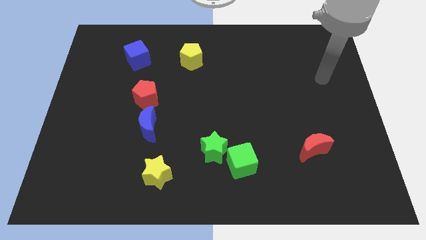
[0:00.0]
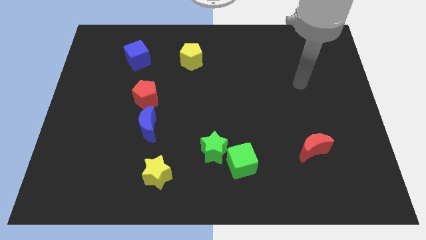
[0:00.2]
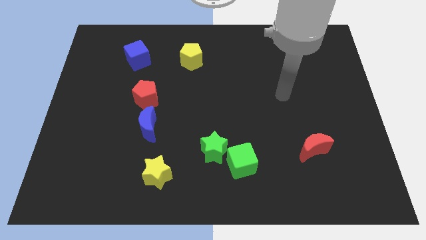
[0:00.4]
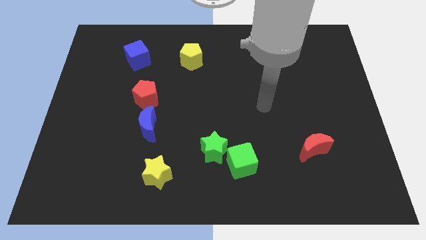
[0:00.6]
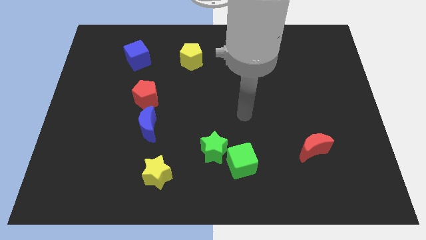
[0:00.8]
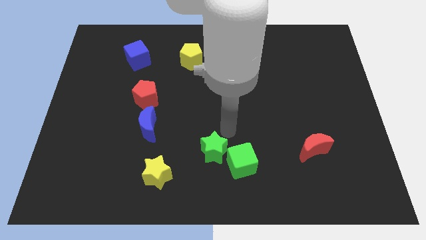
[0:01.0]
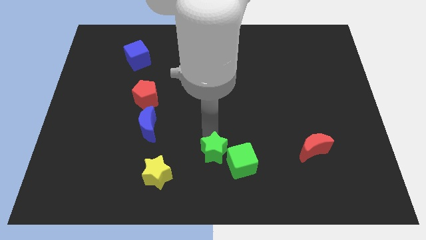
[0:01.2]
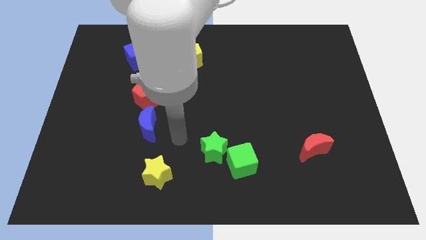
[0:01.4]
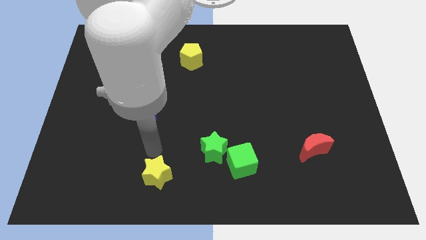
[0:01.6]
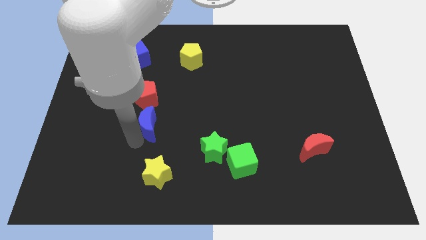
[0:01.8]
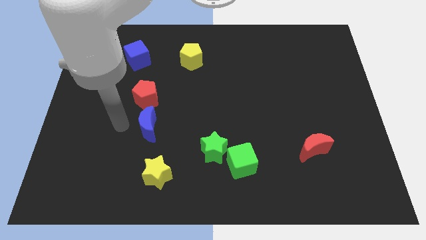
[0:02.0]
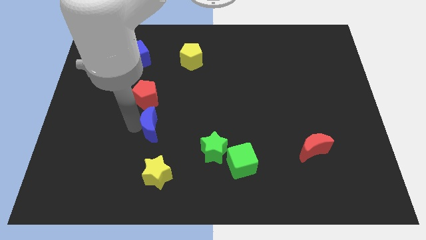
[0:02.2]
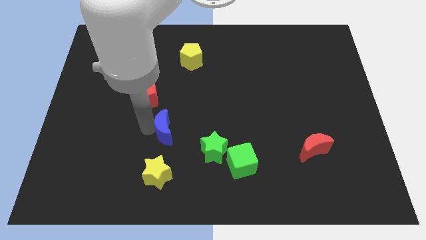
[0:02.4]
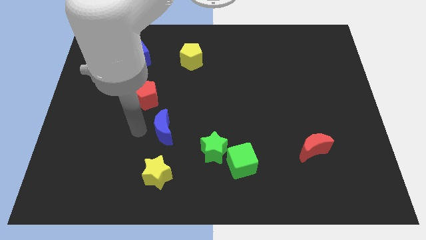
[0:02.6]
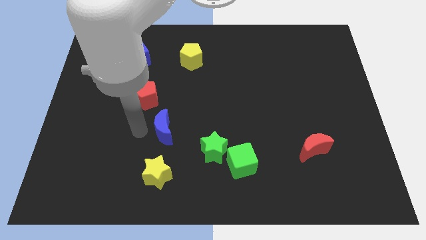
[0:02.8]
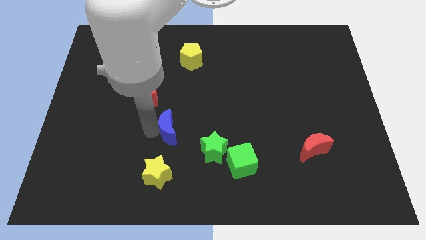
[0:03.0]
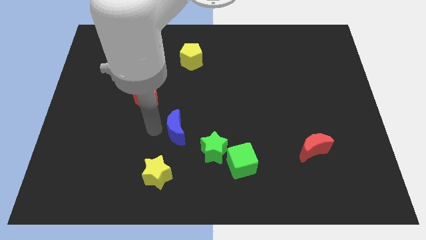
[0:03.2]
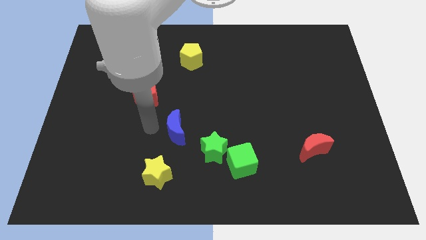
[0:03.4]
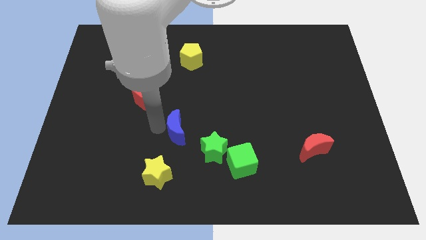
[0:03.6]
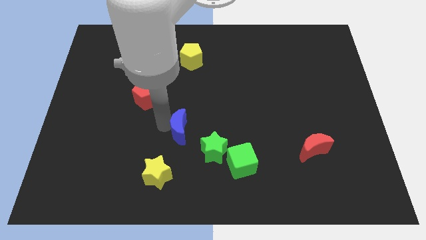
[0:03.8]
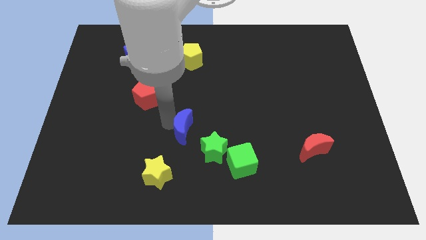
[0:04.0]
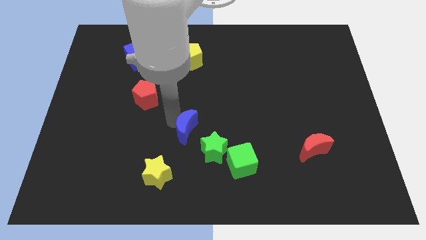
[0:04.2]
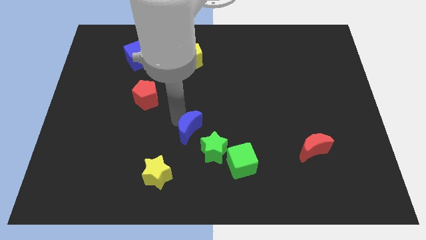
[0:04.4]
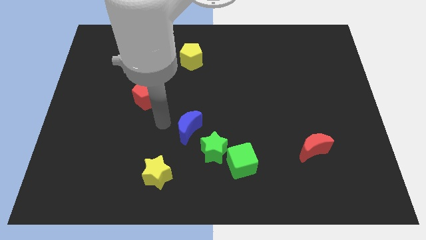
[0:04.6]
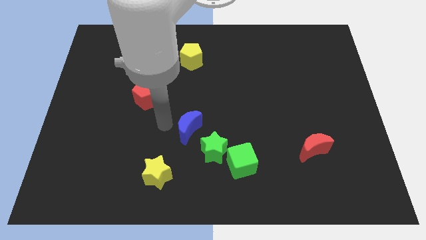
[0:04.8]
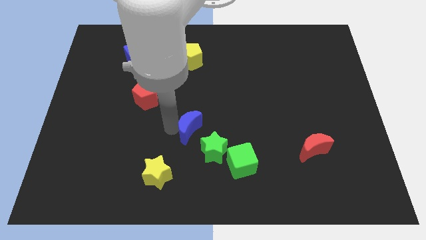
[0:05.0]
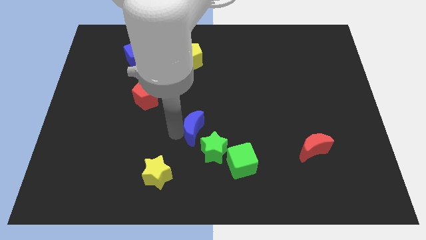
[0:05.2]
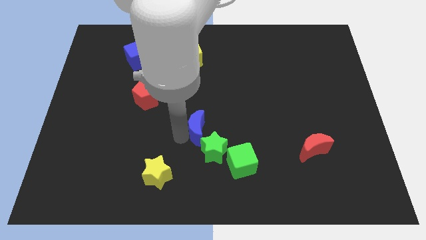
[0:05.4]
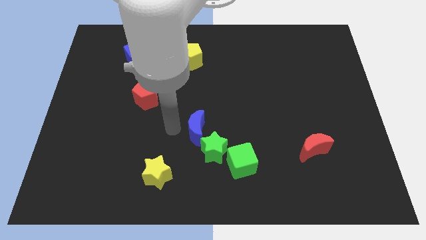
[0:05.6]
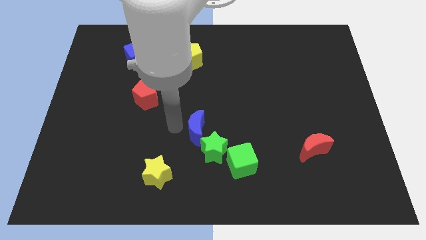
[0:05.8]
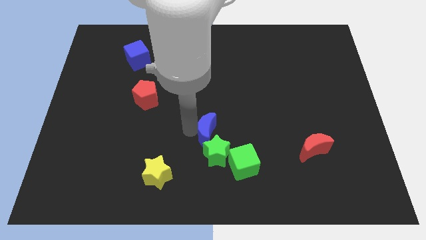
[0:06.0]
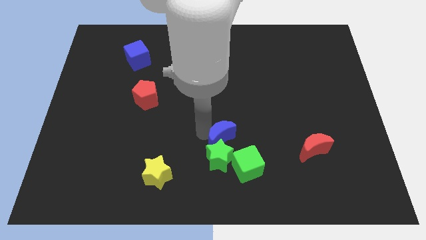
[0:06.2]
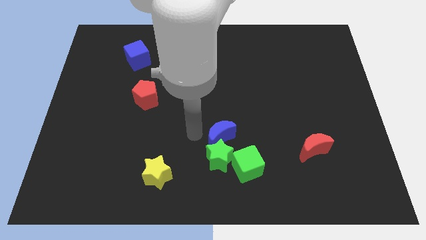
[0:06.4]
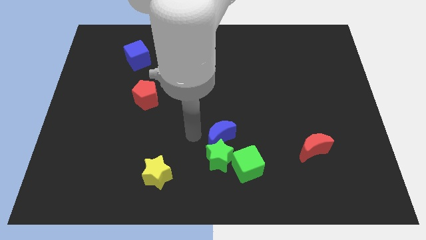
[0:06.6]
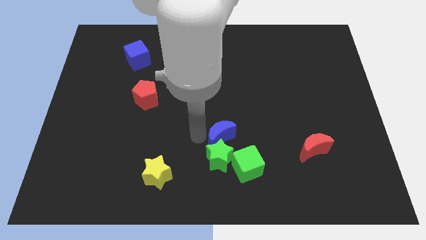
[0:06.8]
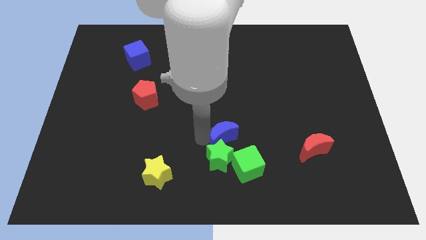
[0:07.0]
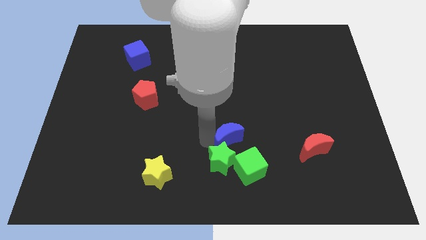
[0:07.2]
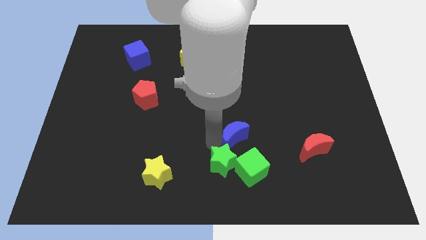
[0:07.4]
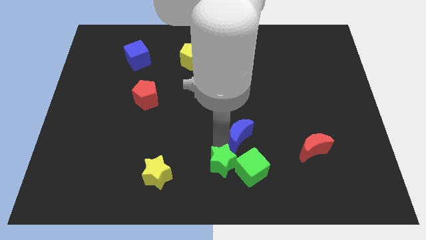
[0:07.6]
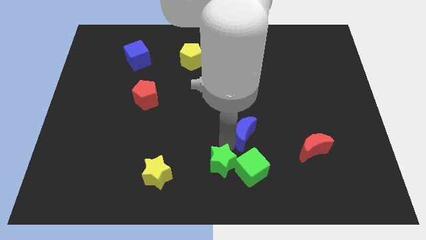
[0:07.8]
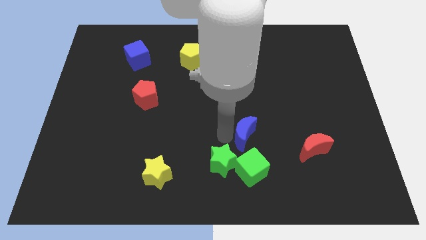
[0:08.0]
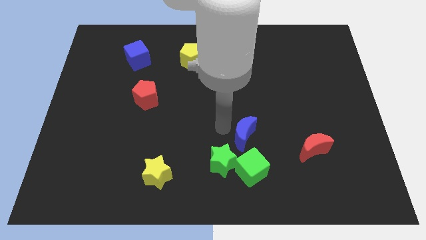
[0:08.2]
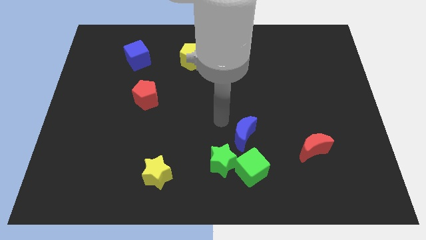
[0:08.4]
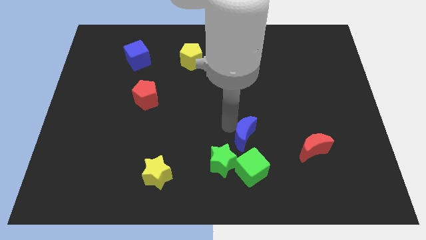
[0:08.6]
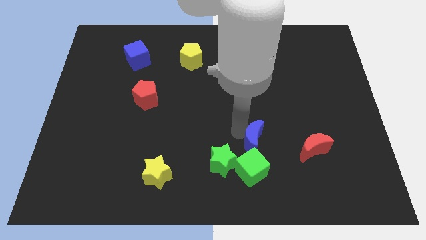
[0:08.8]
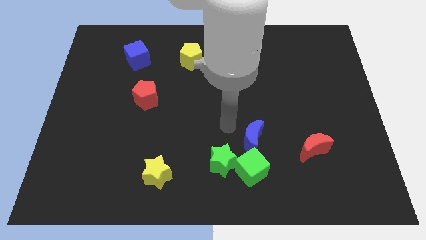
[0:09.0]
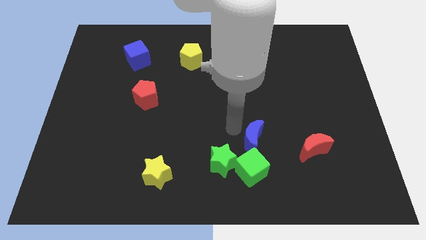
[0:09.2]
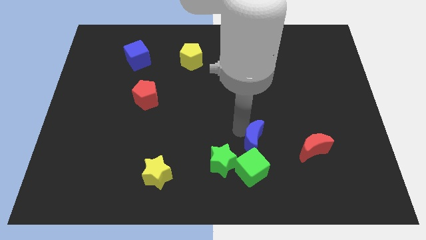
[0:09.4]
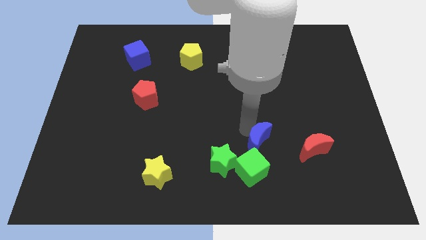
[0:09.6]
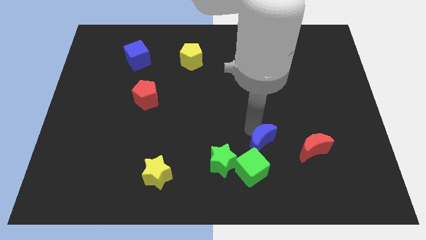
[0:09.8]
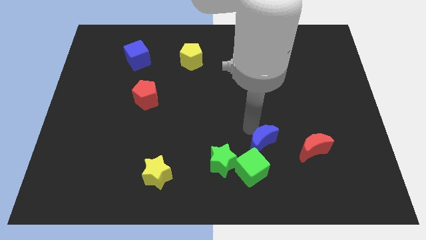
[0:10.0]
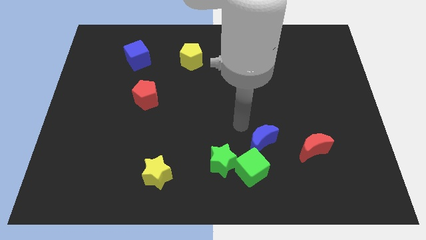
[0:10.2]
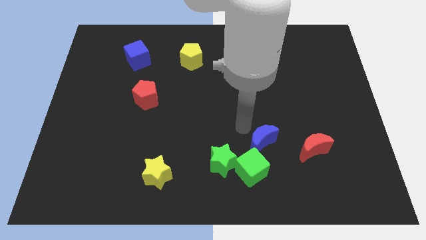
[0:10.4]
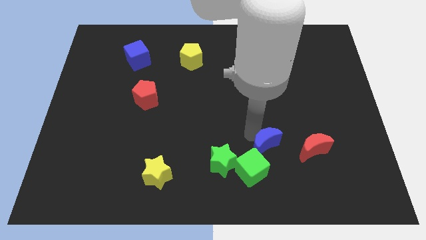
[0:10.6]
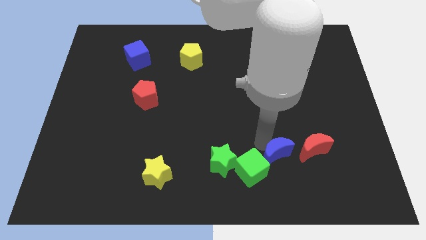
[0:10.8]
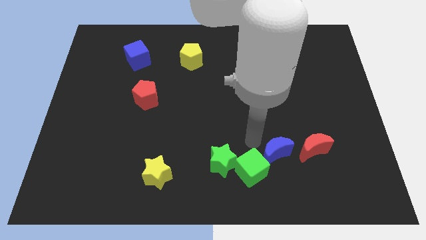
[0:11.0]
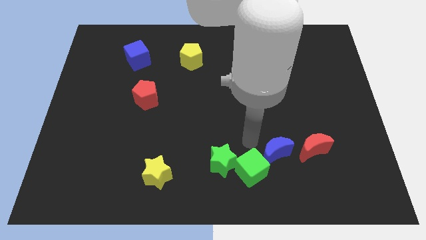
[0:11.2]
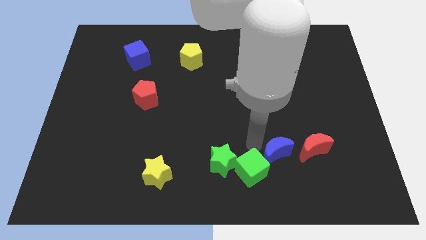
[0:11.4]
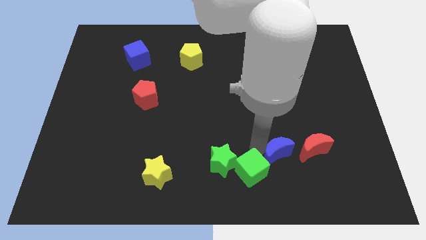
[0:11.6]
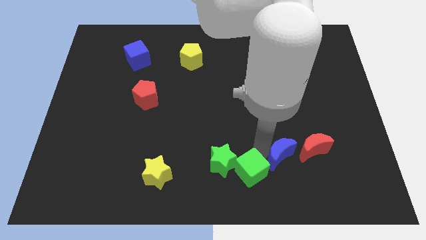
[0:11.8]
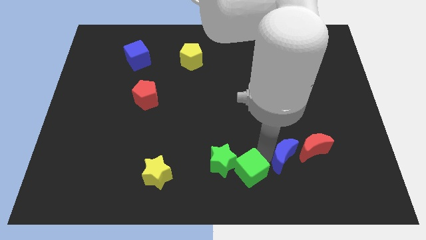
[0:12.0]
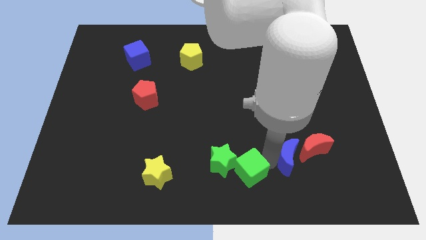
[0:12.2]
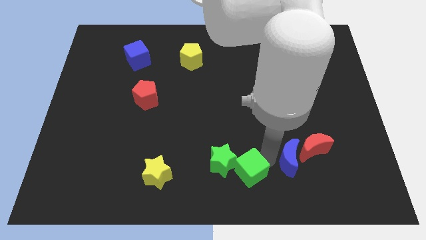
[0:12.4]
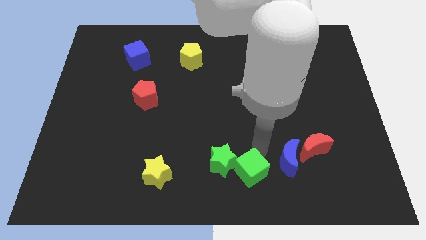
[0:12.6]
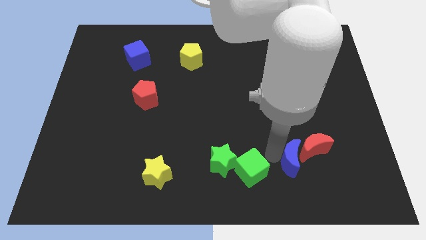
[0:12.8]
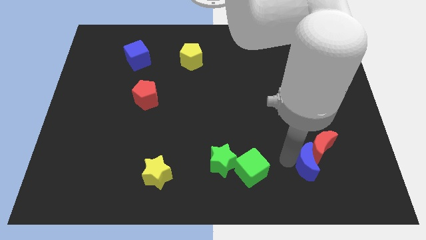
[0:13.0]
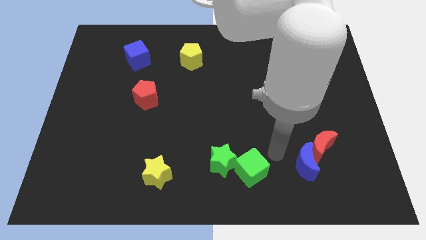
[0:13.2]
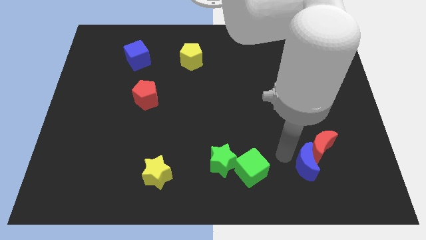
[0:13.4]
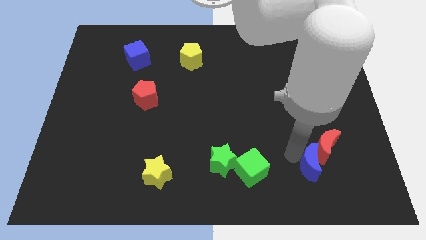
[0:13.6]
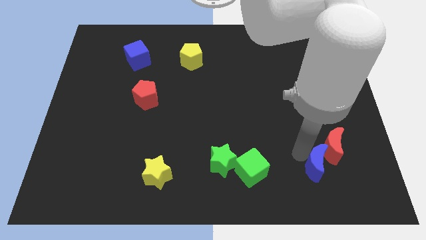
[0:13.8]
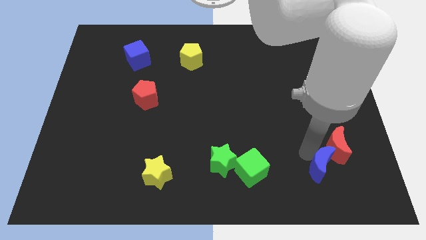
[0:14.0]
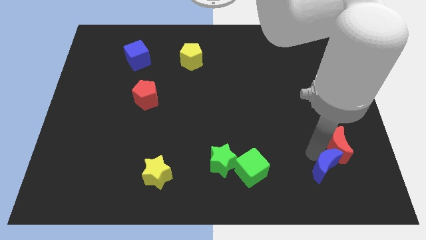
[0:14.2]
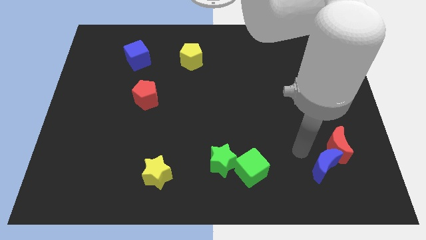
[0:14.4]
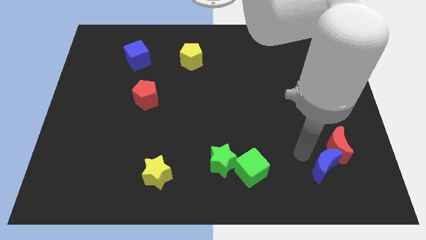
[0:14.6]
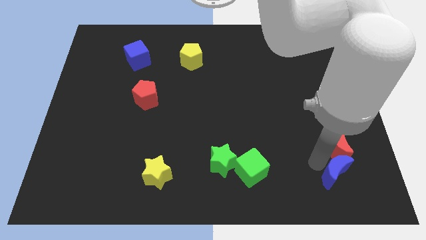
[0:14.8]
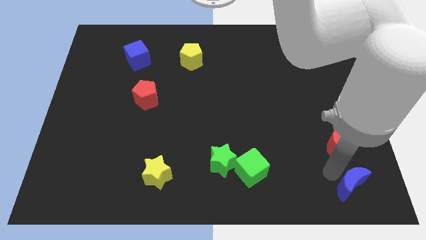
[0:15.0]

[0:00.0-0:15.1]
push the blue moon to the bottom right
